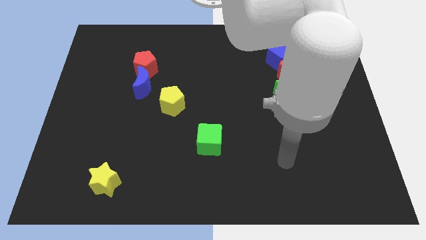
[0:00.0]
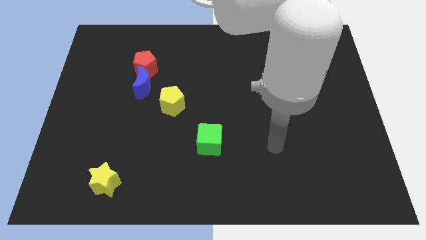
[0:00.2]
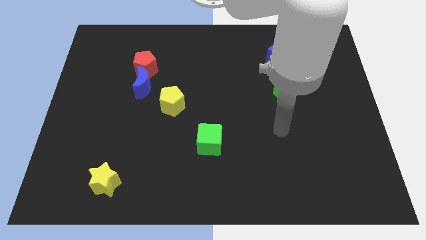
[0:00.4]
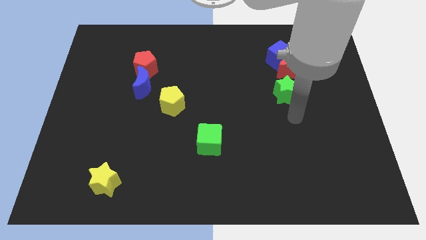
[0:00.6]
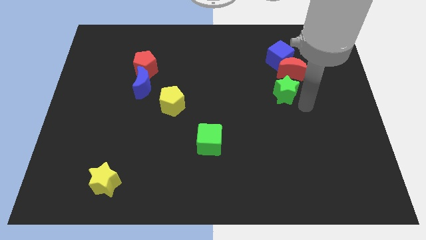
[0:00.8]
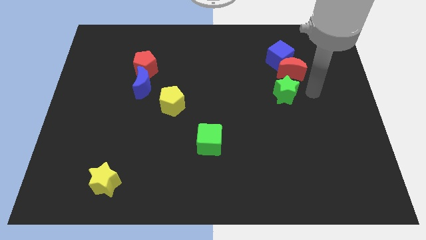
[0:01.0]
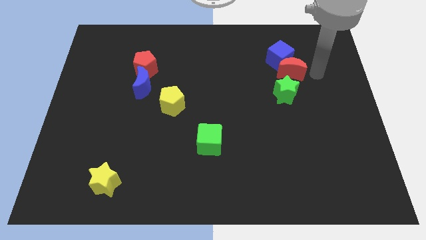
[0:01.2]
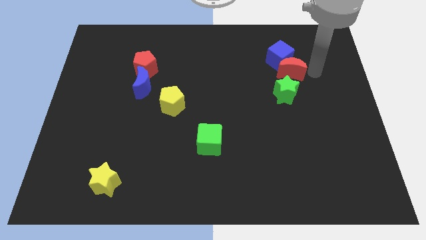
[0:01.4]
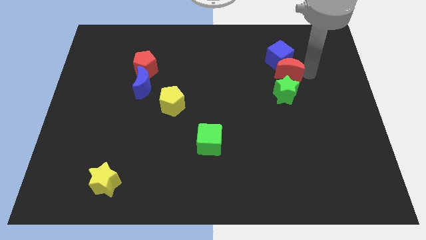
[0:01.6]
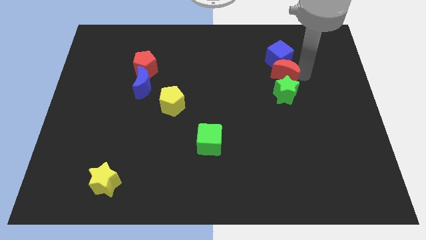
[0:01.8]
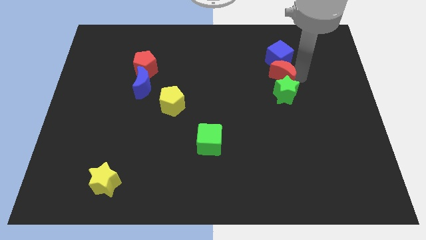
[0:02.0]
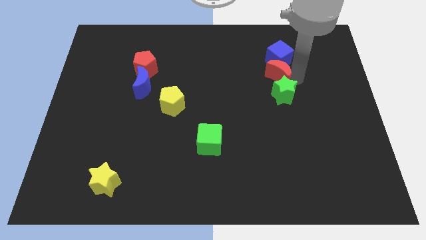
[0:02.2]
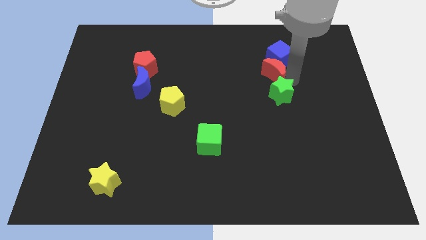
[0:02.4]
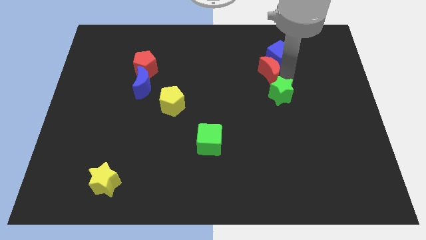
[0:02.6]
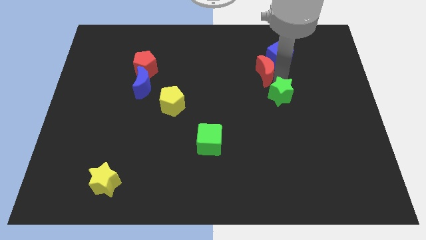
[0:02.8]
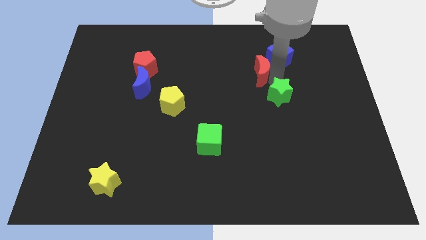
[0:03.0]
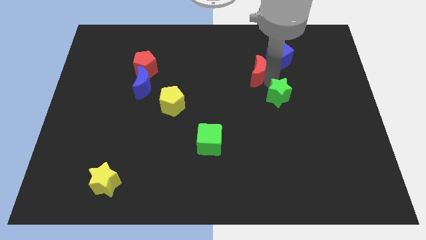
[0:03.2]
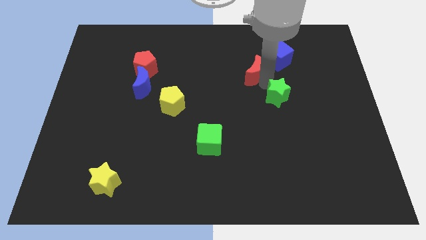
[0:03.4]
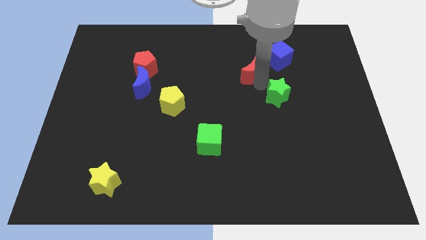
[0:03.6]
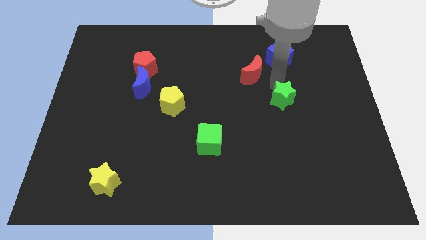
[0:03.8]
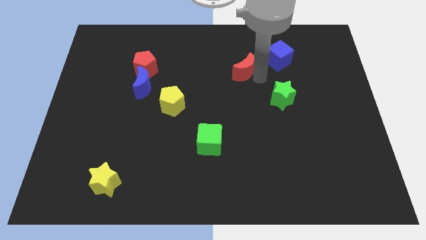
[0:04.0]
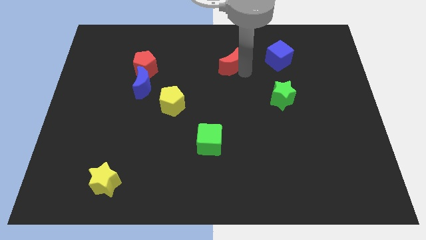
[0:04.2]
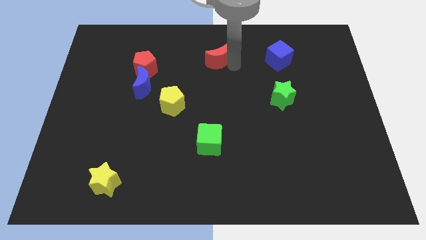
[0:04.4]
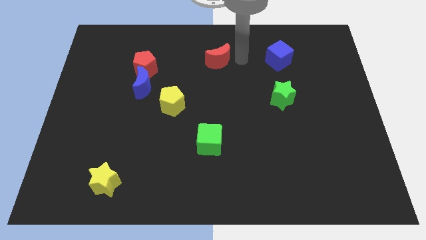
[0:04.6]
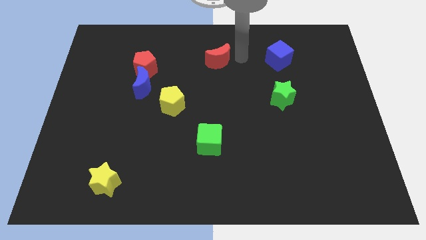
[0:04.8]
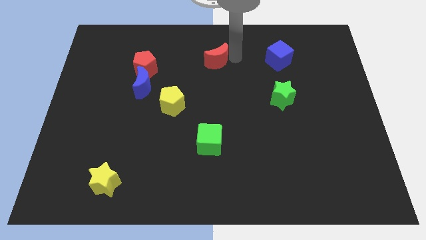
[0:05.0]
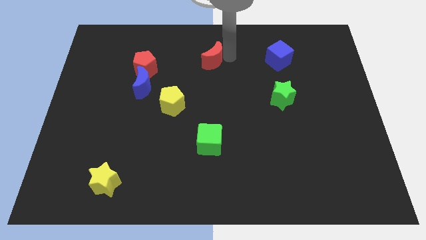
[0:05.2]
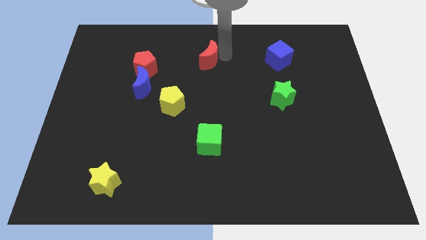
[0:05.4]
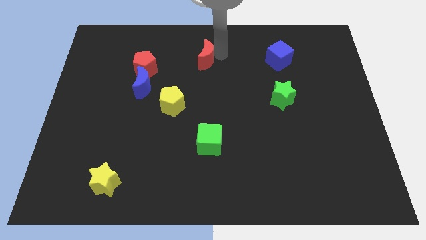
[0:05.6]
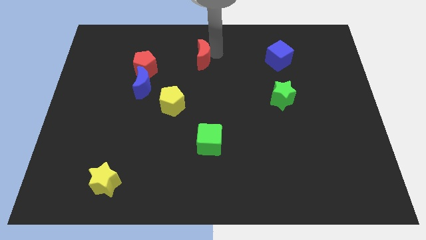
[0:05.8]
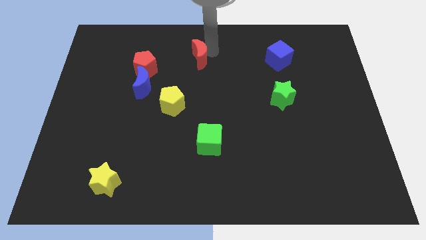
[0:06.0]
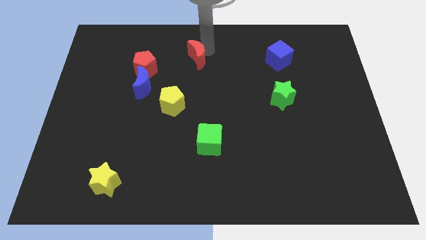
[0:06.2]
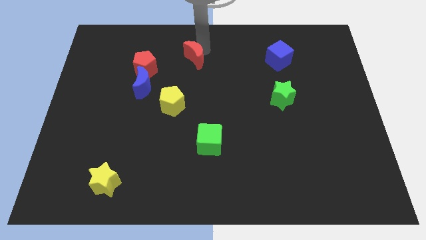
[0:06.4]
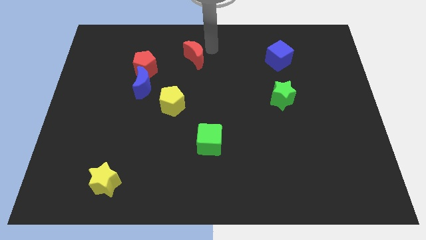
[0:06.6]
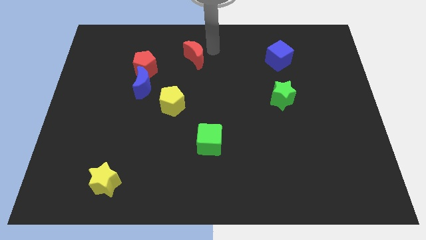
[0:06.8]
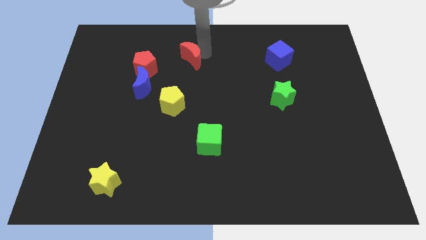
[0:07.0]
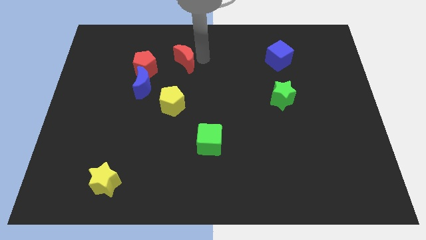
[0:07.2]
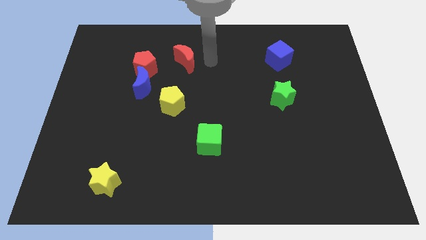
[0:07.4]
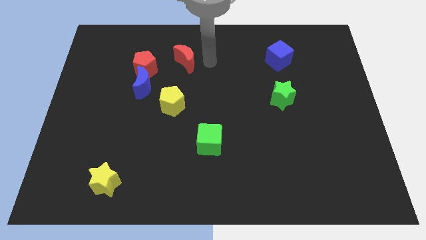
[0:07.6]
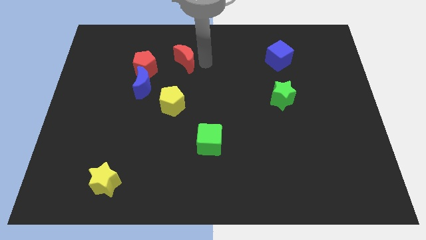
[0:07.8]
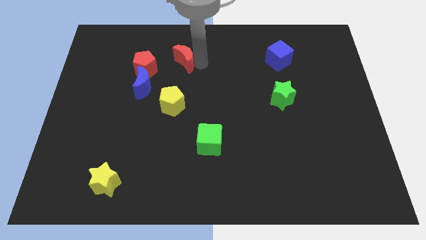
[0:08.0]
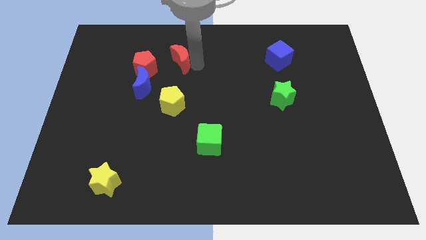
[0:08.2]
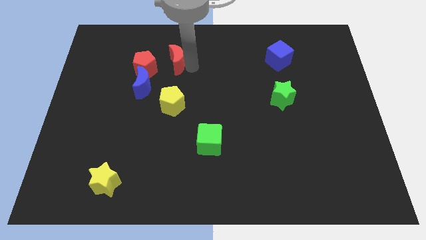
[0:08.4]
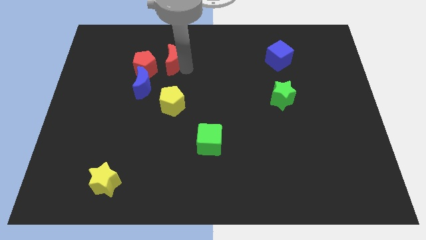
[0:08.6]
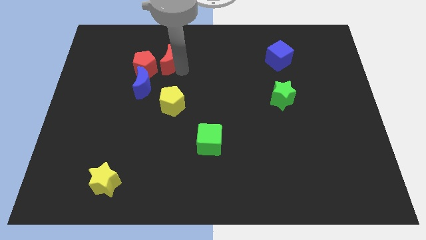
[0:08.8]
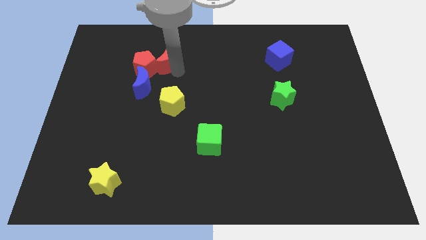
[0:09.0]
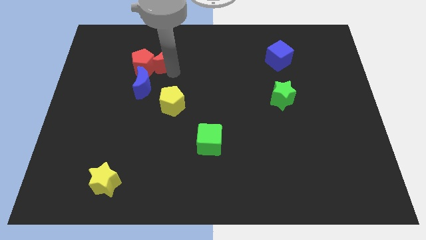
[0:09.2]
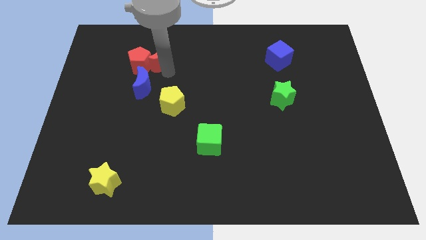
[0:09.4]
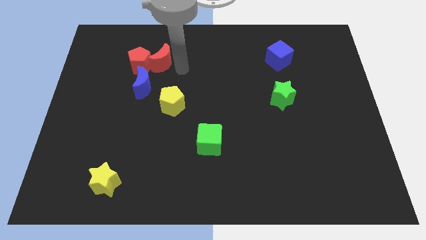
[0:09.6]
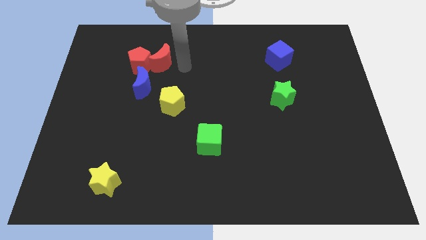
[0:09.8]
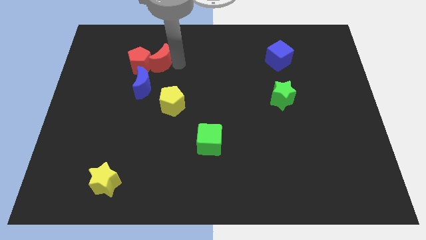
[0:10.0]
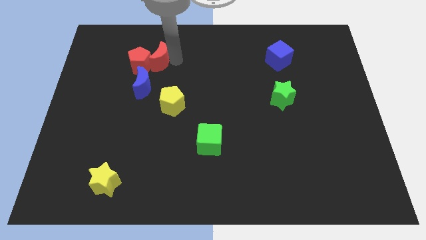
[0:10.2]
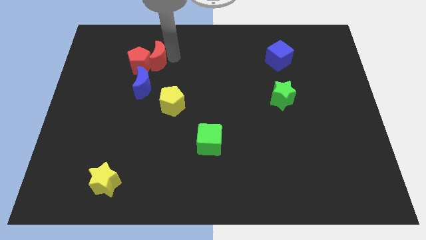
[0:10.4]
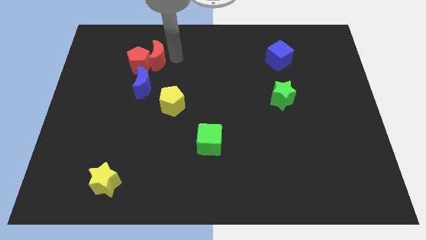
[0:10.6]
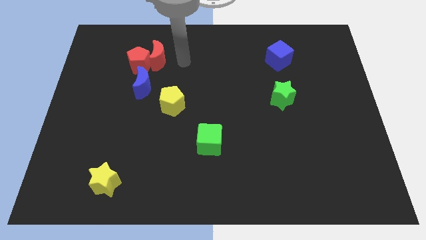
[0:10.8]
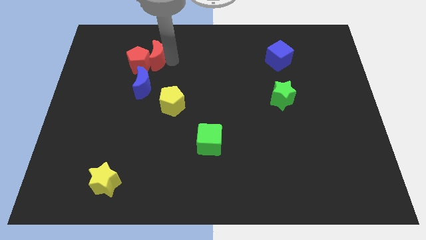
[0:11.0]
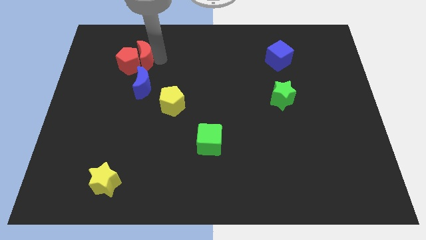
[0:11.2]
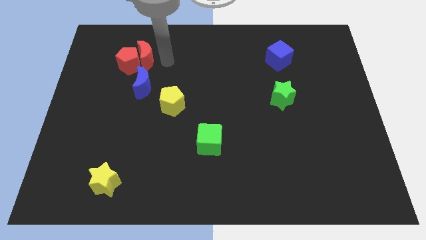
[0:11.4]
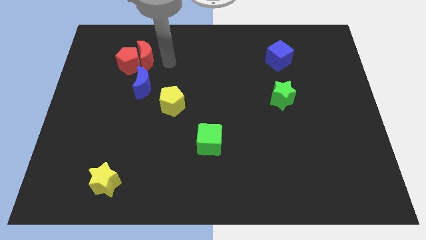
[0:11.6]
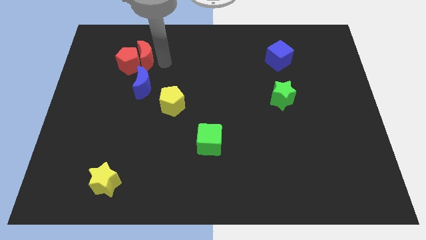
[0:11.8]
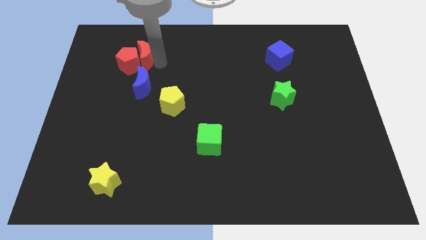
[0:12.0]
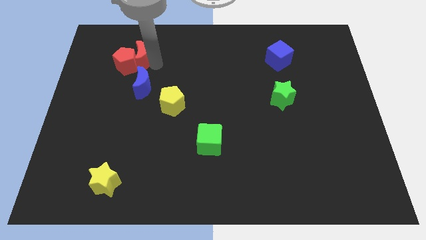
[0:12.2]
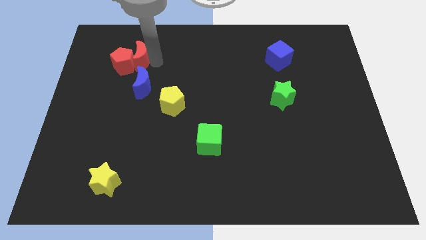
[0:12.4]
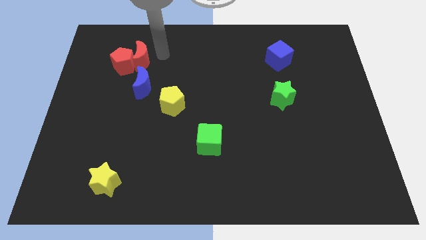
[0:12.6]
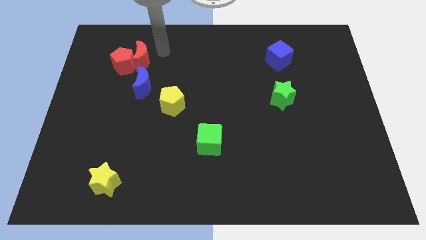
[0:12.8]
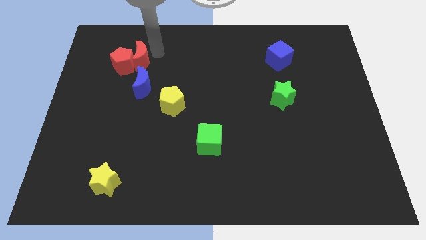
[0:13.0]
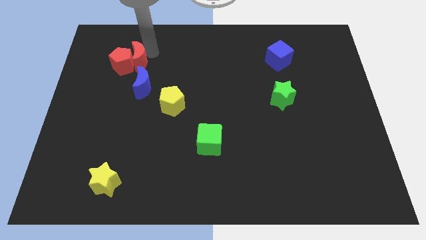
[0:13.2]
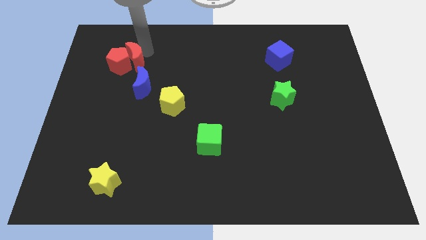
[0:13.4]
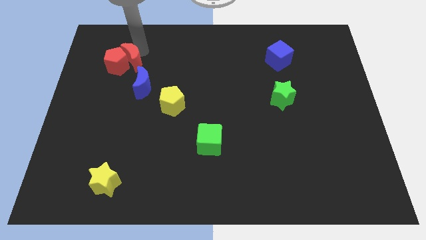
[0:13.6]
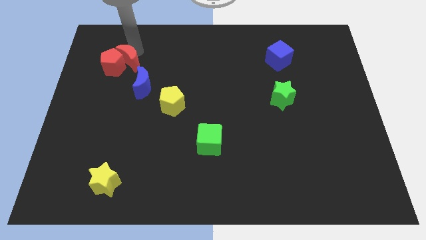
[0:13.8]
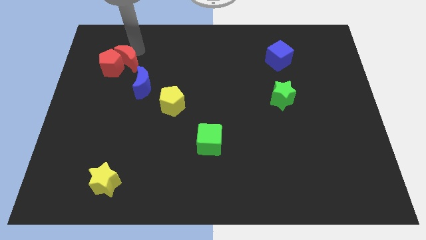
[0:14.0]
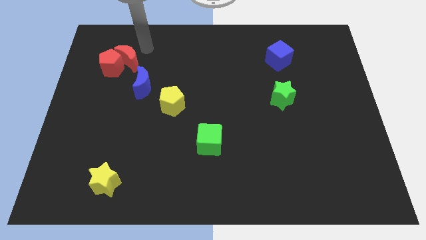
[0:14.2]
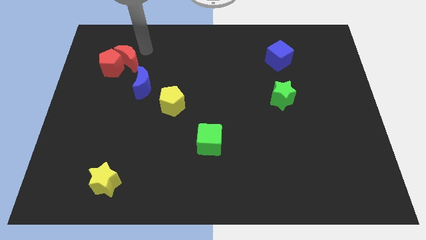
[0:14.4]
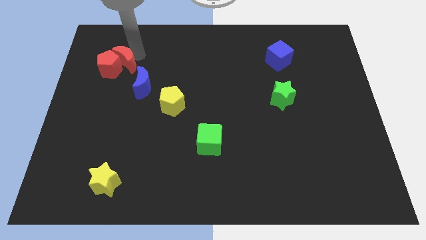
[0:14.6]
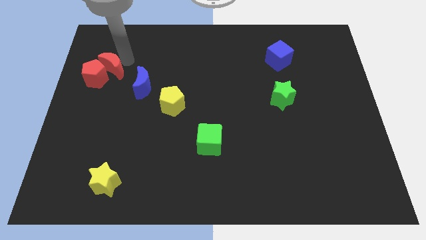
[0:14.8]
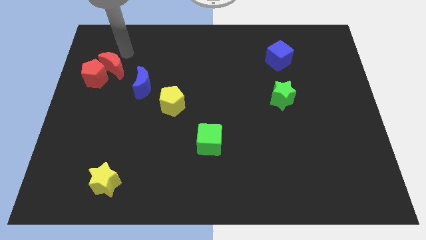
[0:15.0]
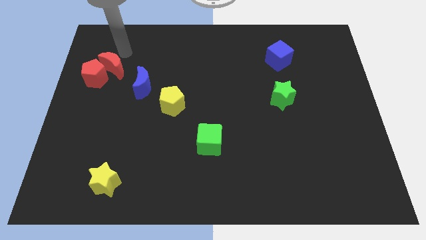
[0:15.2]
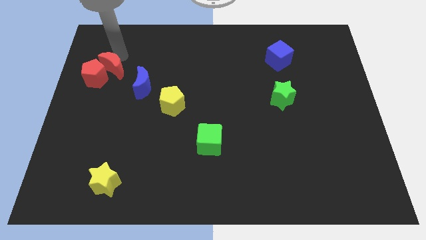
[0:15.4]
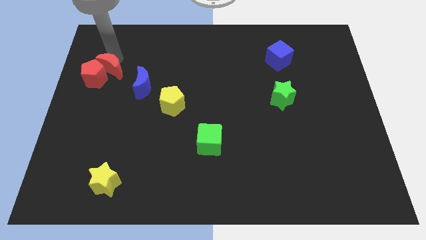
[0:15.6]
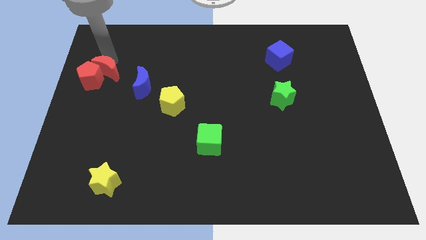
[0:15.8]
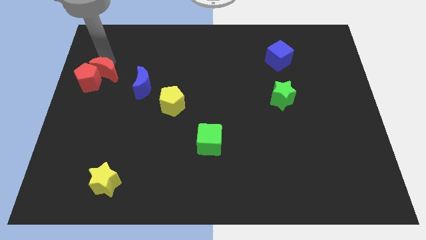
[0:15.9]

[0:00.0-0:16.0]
push the red moon left of the blue moon
